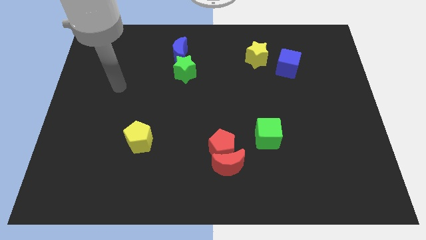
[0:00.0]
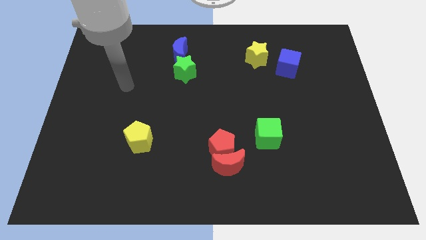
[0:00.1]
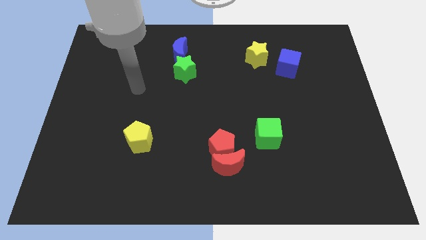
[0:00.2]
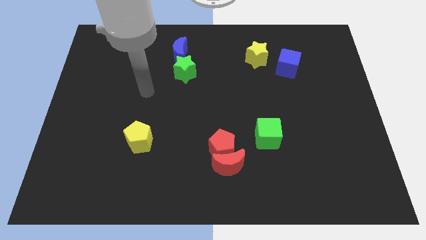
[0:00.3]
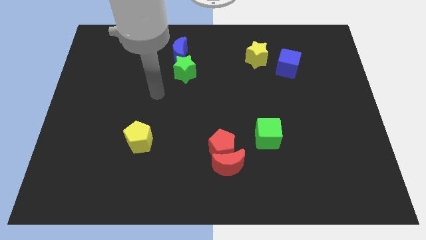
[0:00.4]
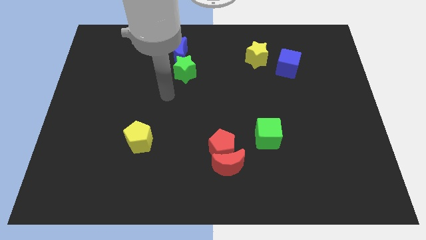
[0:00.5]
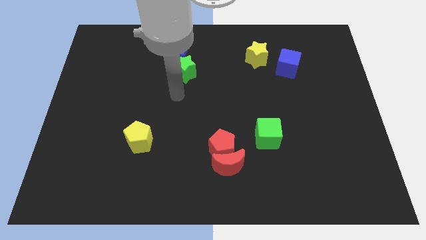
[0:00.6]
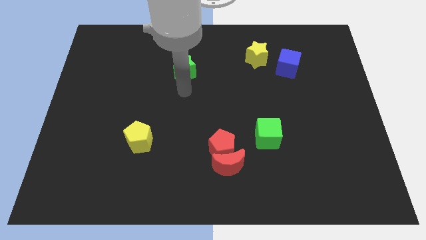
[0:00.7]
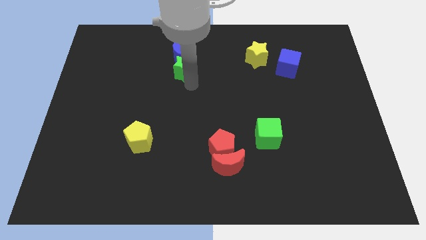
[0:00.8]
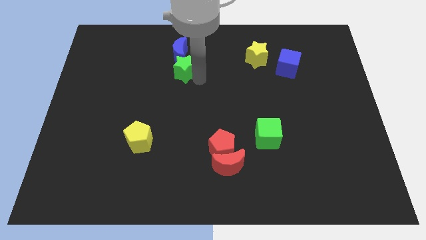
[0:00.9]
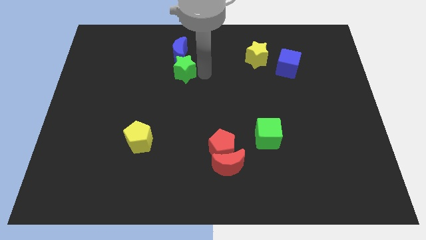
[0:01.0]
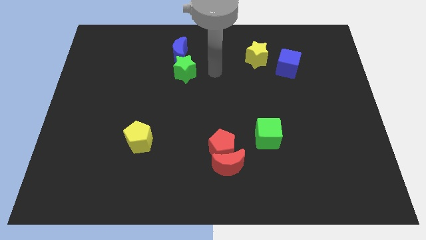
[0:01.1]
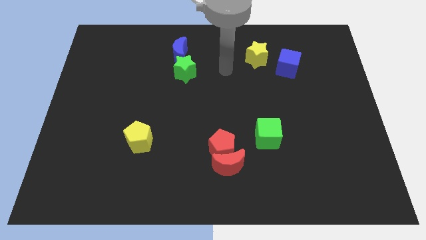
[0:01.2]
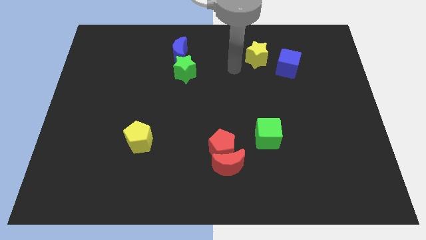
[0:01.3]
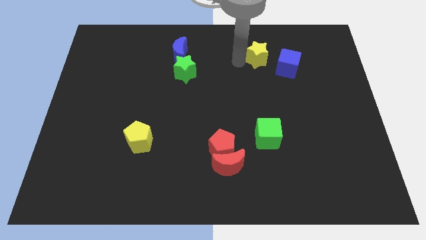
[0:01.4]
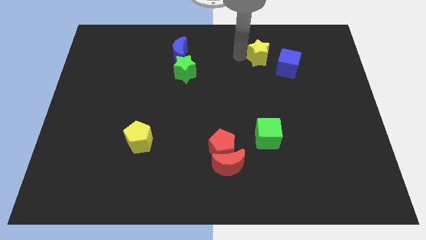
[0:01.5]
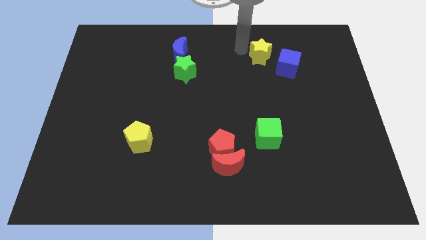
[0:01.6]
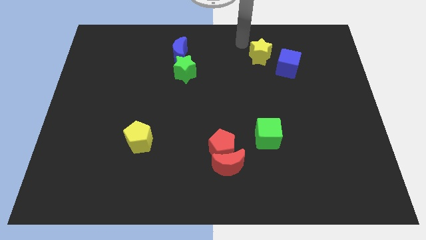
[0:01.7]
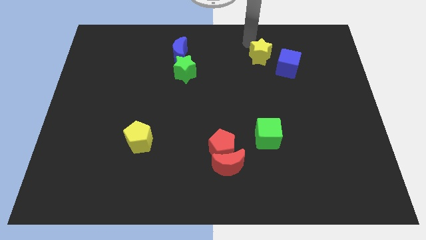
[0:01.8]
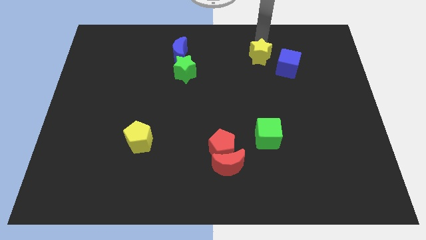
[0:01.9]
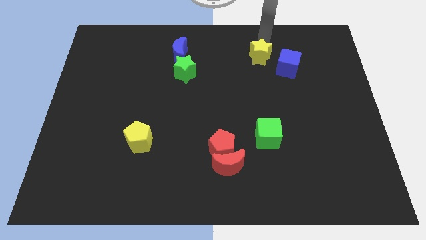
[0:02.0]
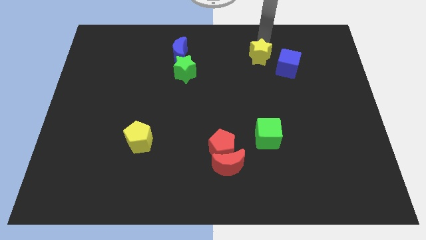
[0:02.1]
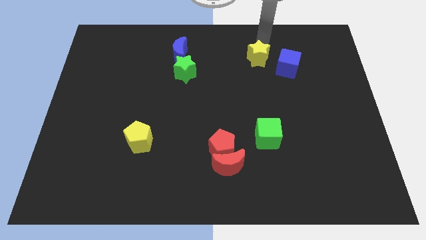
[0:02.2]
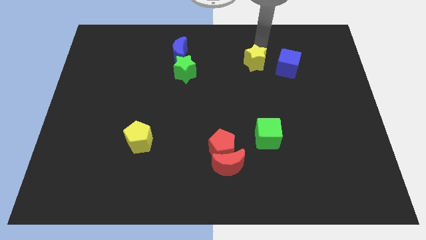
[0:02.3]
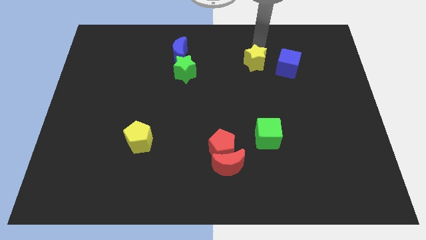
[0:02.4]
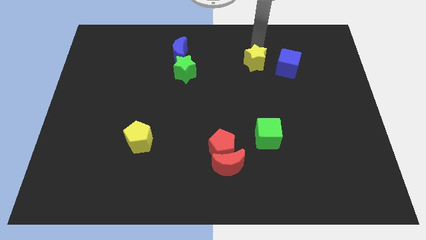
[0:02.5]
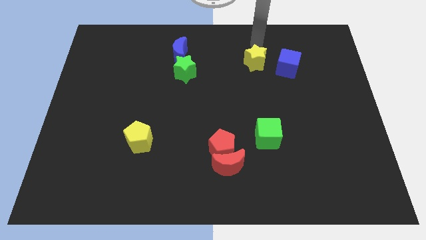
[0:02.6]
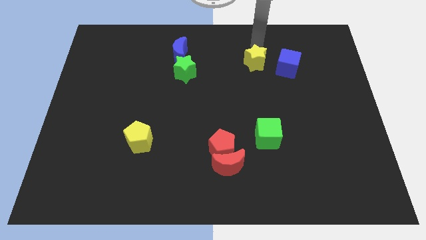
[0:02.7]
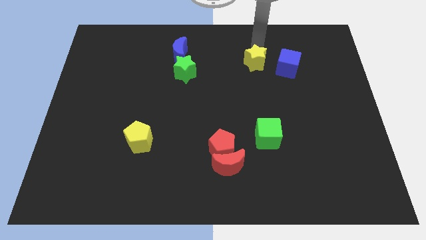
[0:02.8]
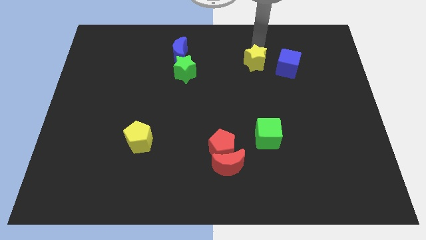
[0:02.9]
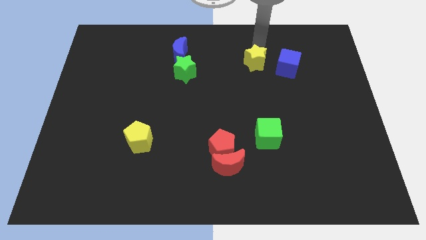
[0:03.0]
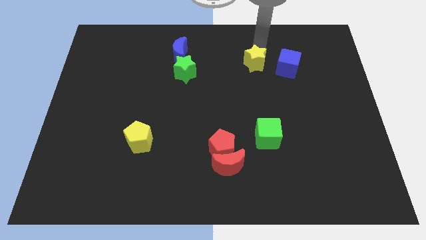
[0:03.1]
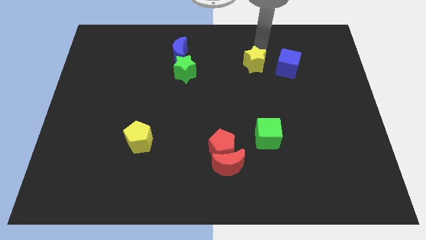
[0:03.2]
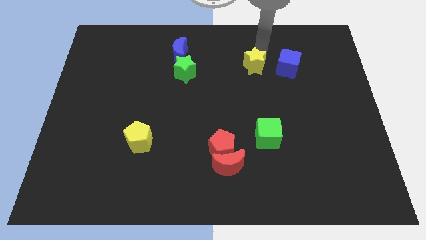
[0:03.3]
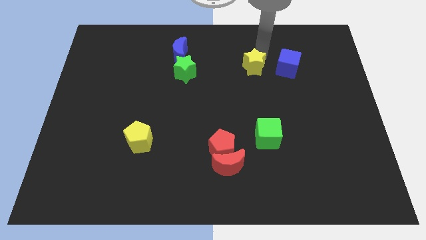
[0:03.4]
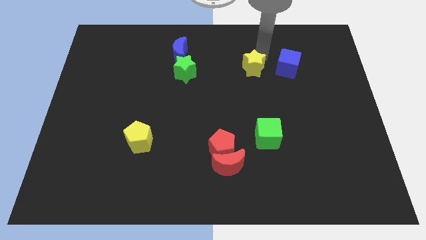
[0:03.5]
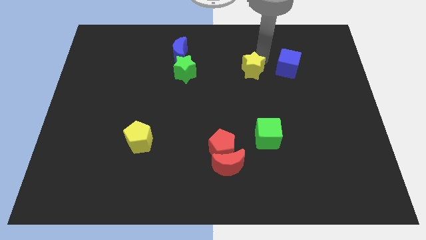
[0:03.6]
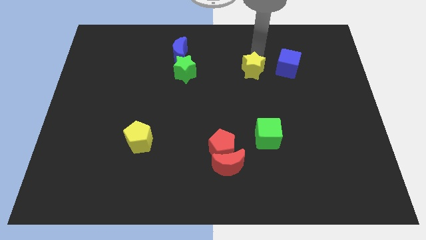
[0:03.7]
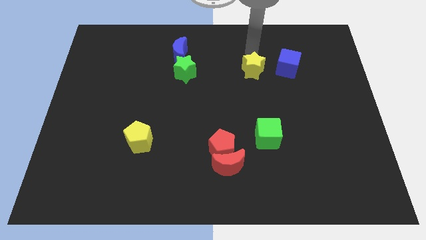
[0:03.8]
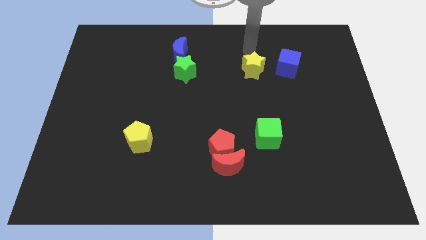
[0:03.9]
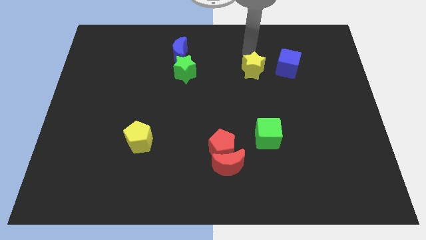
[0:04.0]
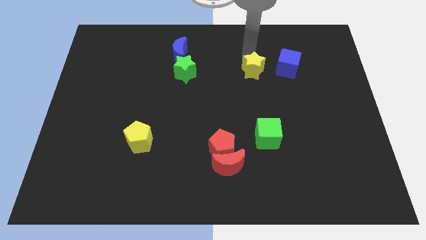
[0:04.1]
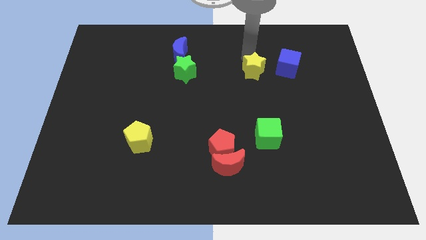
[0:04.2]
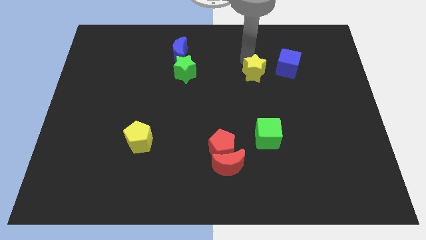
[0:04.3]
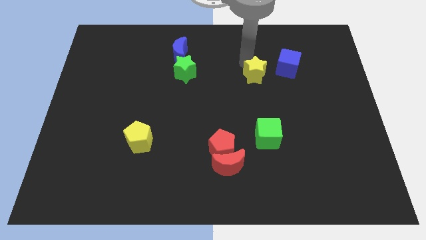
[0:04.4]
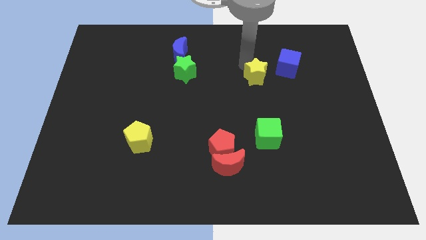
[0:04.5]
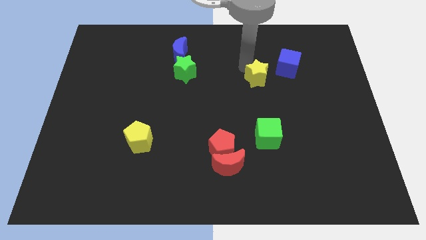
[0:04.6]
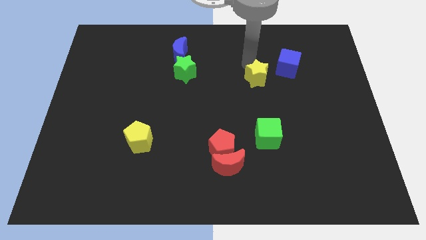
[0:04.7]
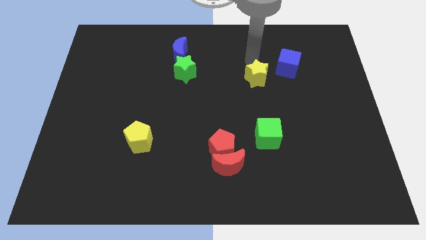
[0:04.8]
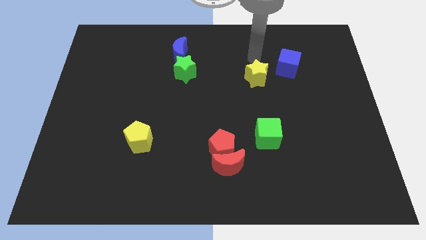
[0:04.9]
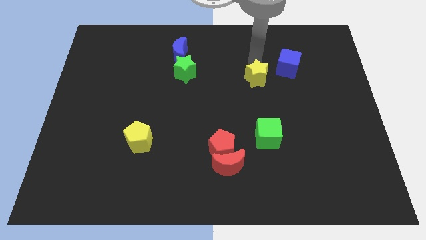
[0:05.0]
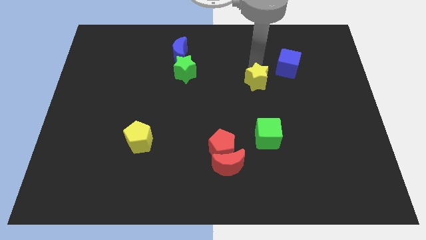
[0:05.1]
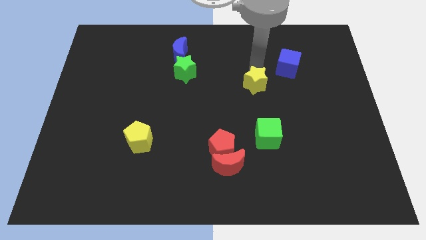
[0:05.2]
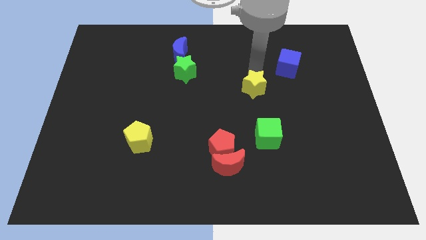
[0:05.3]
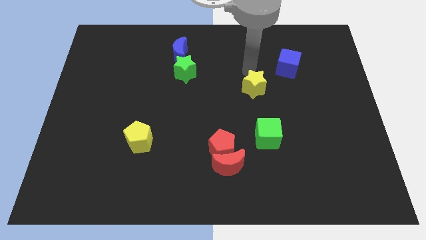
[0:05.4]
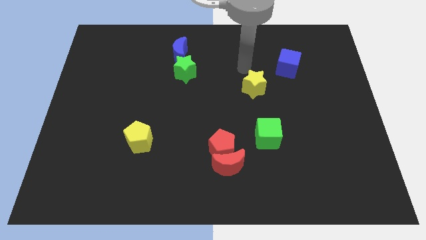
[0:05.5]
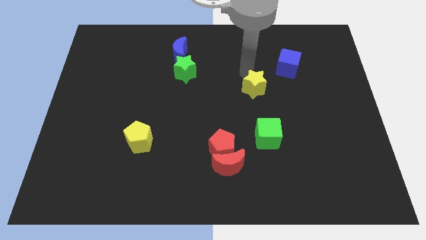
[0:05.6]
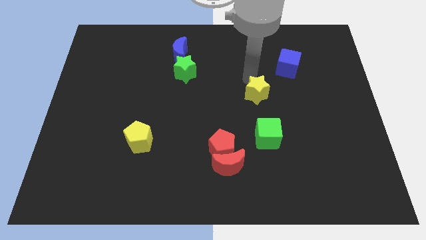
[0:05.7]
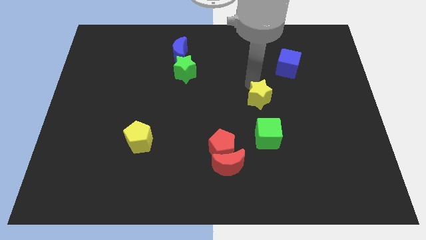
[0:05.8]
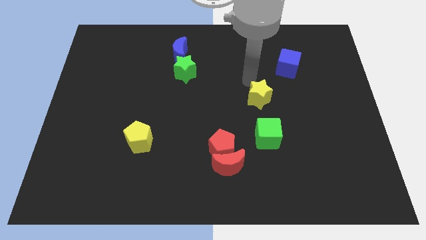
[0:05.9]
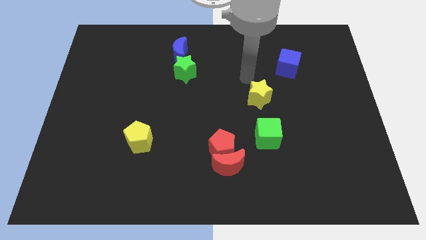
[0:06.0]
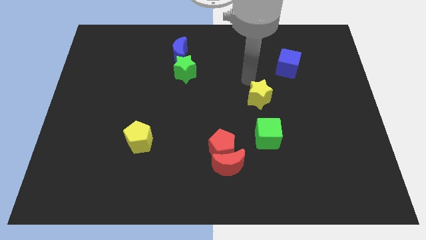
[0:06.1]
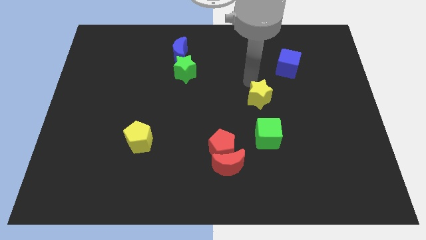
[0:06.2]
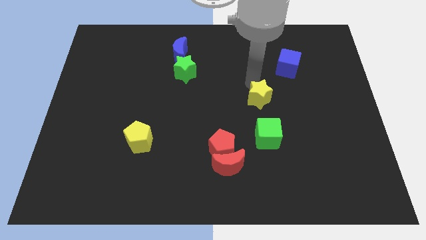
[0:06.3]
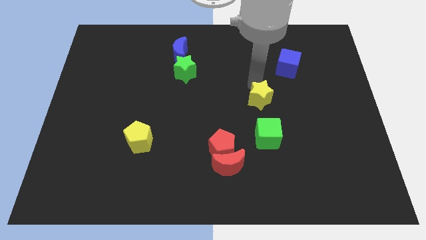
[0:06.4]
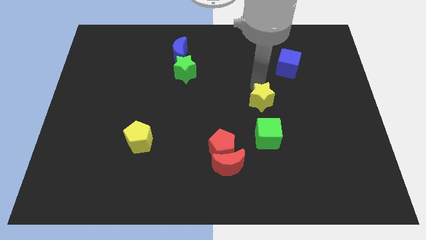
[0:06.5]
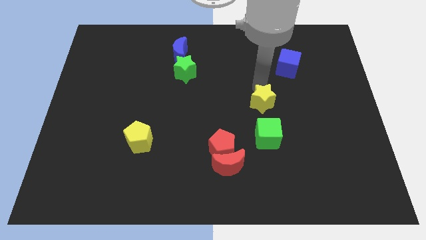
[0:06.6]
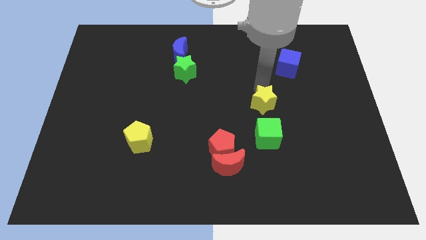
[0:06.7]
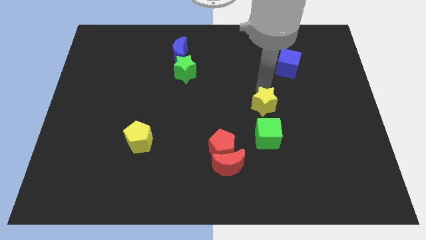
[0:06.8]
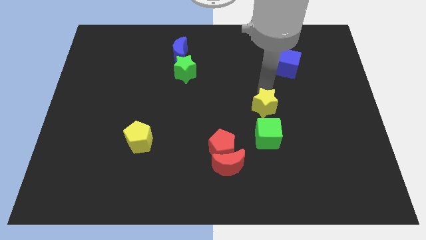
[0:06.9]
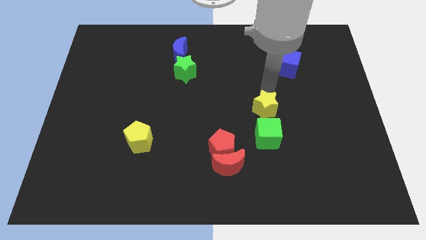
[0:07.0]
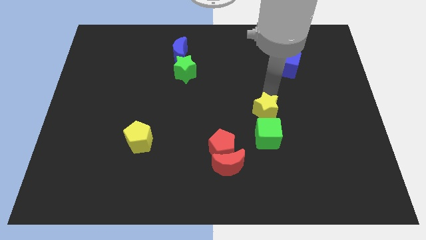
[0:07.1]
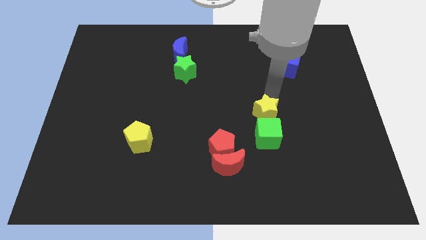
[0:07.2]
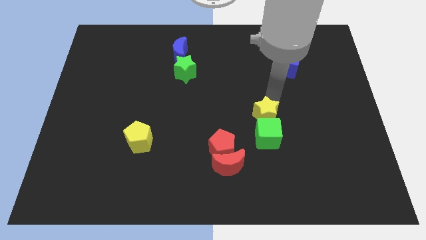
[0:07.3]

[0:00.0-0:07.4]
move the yellow star to the green cube
